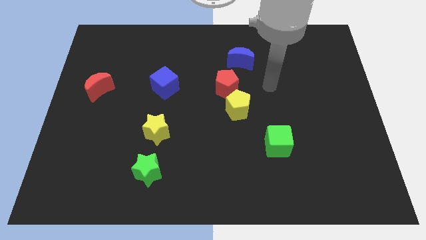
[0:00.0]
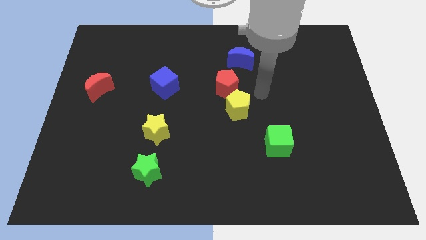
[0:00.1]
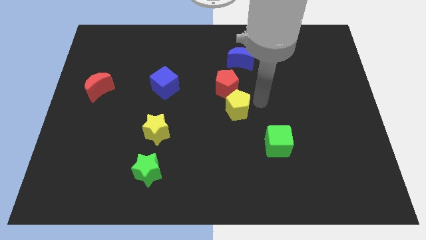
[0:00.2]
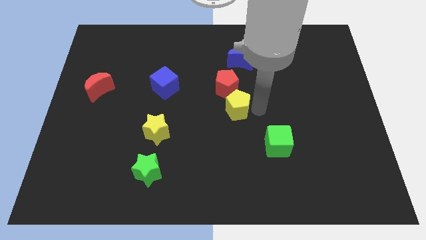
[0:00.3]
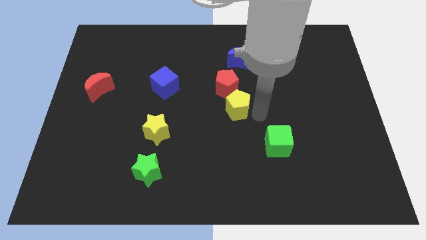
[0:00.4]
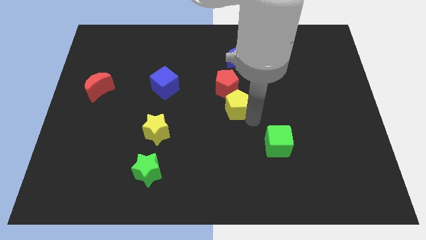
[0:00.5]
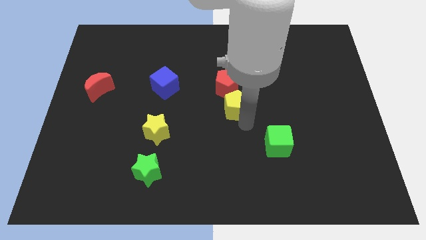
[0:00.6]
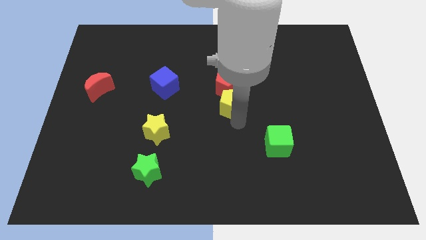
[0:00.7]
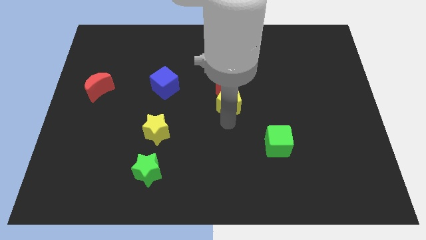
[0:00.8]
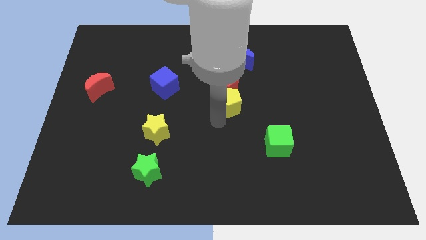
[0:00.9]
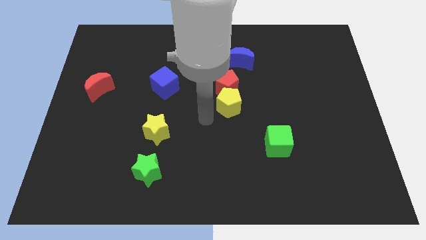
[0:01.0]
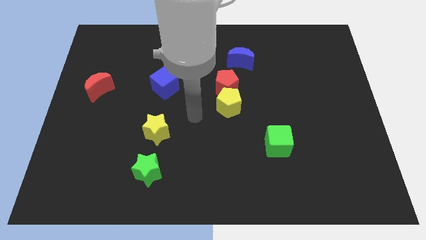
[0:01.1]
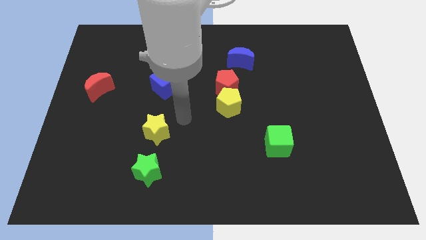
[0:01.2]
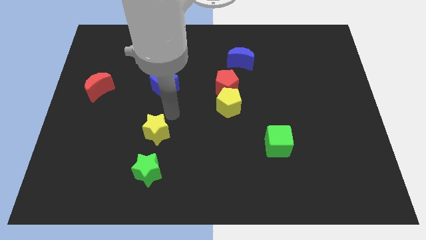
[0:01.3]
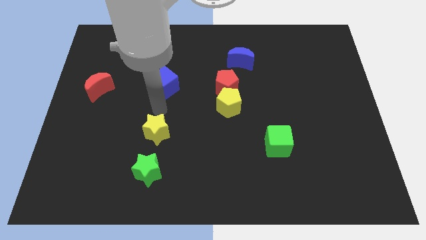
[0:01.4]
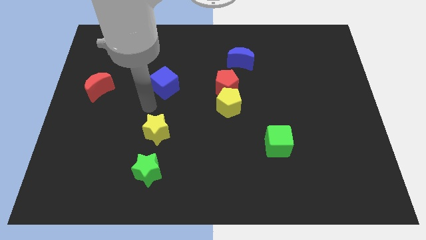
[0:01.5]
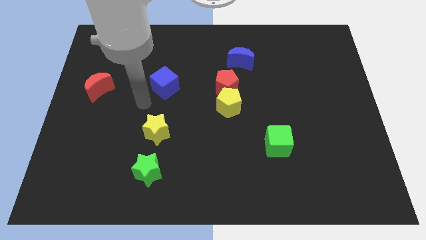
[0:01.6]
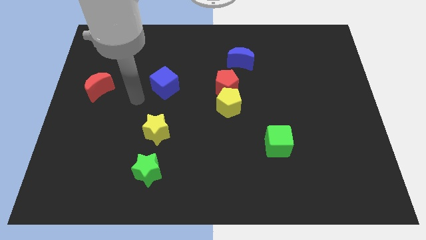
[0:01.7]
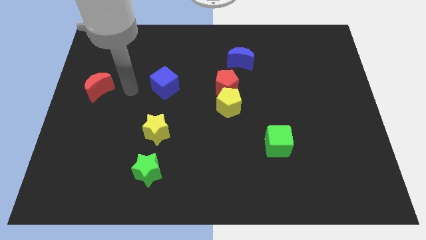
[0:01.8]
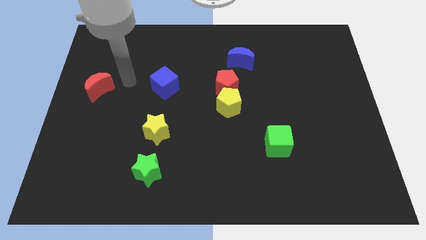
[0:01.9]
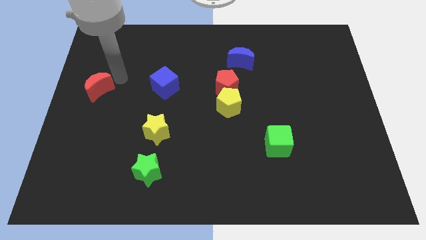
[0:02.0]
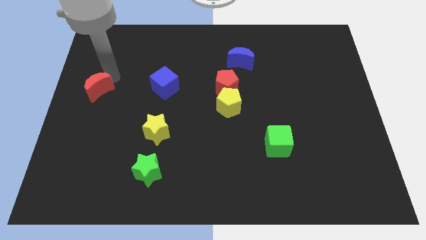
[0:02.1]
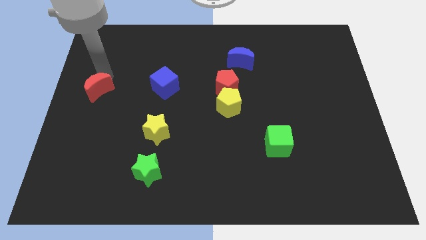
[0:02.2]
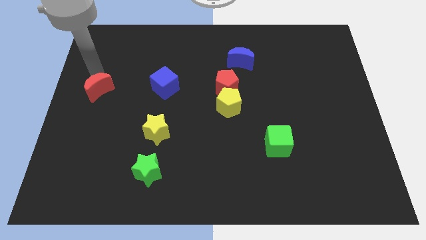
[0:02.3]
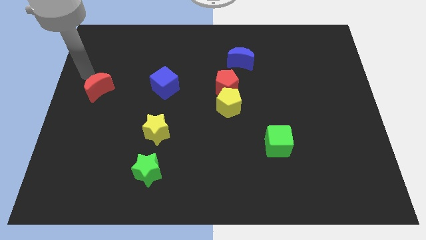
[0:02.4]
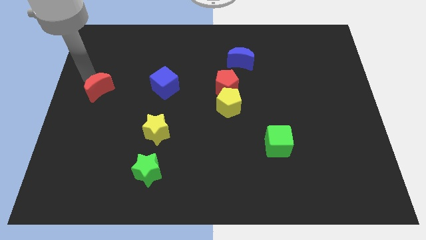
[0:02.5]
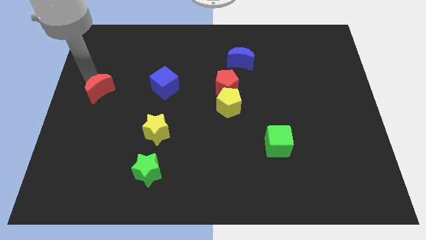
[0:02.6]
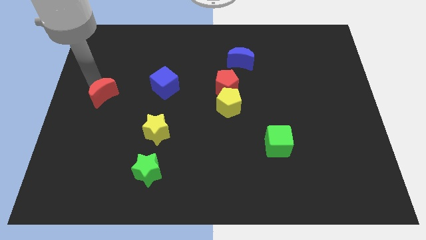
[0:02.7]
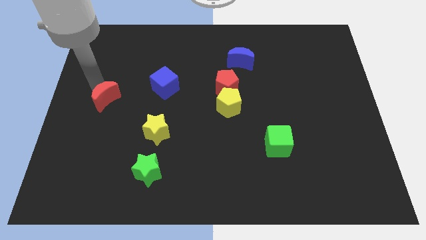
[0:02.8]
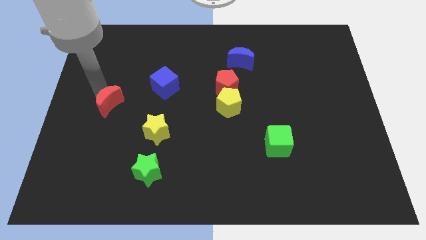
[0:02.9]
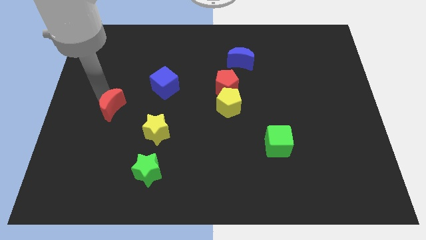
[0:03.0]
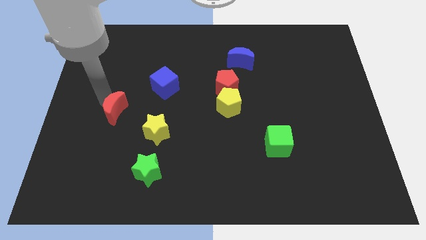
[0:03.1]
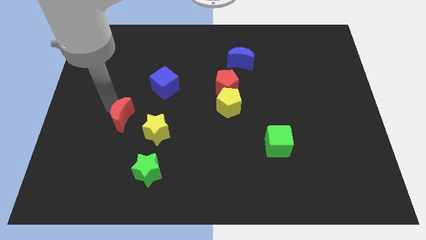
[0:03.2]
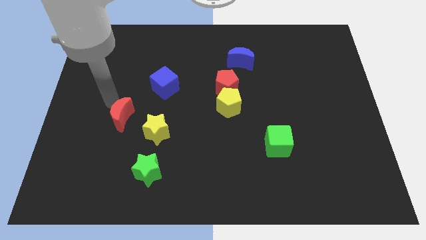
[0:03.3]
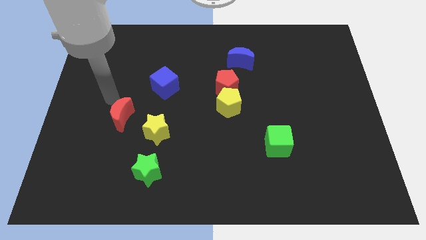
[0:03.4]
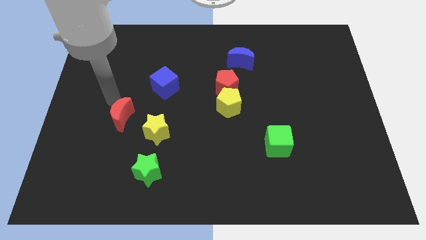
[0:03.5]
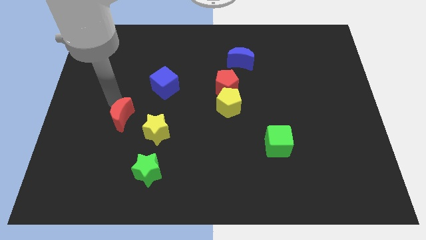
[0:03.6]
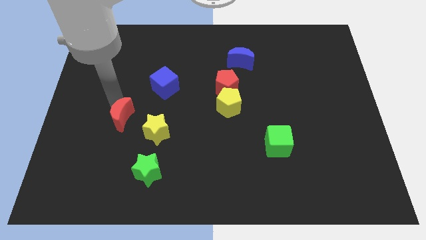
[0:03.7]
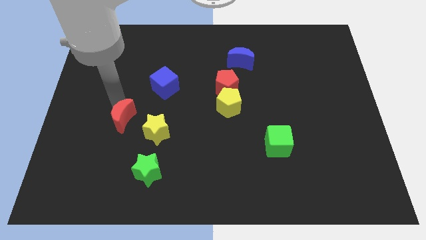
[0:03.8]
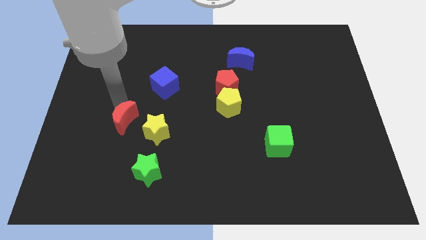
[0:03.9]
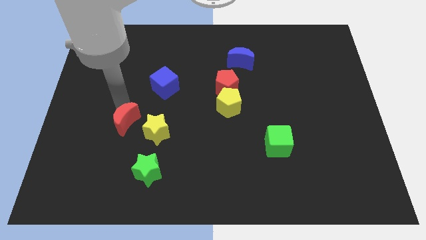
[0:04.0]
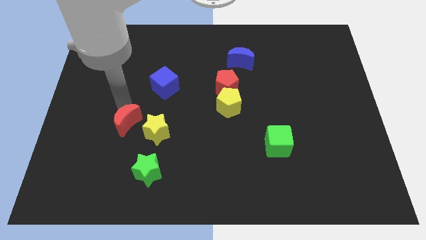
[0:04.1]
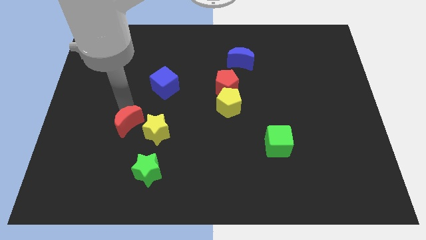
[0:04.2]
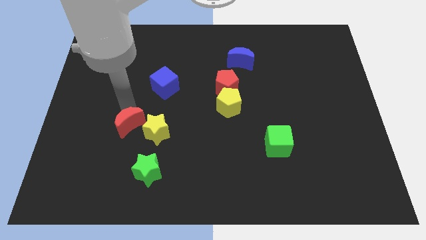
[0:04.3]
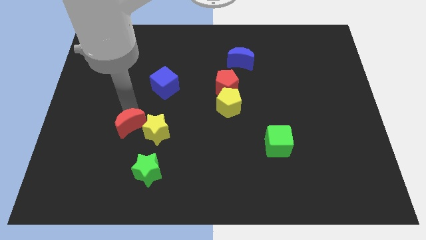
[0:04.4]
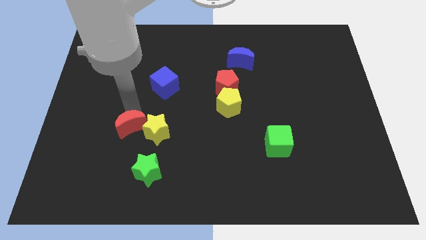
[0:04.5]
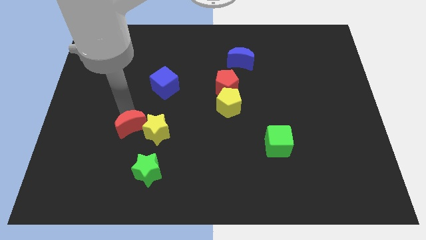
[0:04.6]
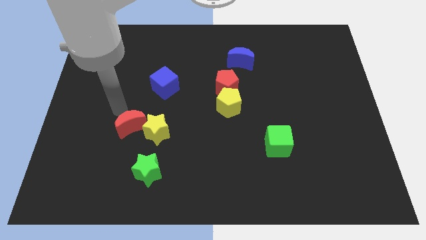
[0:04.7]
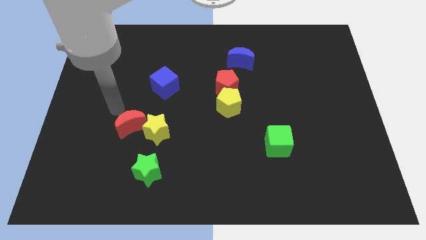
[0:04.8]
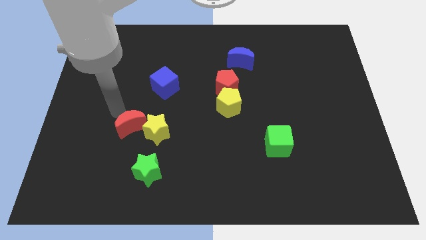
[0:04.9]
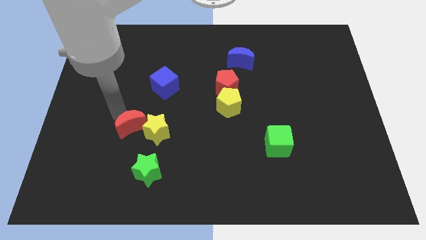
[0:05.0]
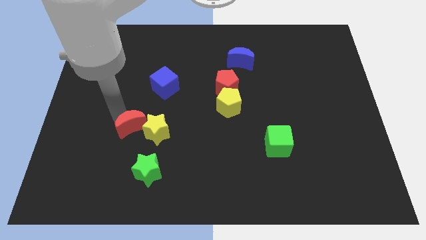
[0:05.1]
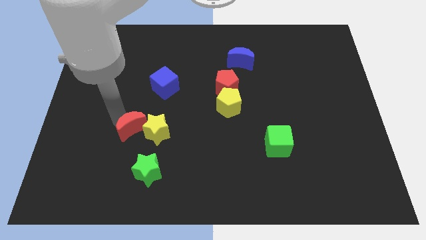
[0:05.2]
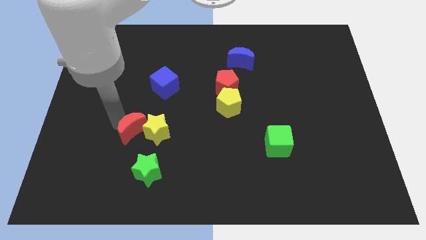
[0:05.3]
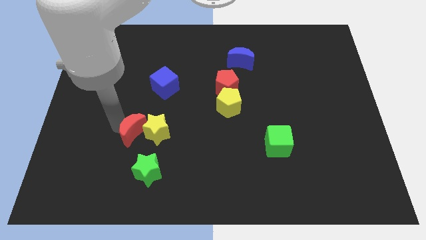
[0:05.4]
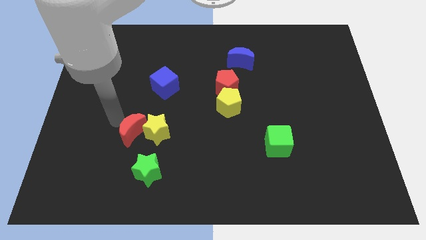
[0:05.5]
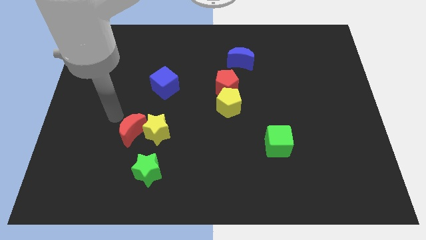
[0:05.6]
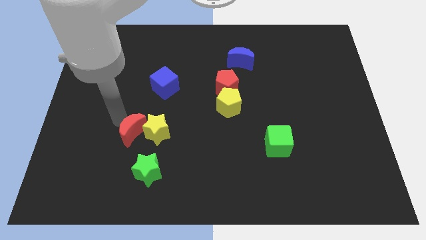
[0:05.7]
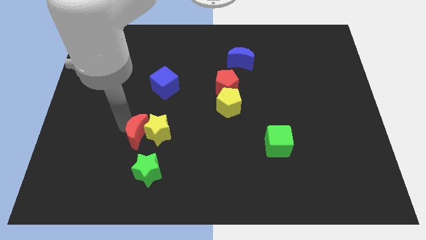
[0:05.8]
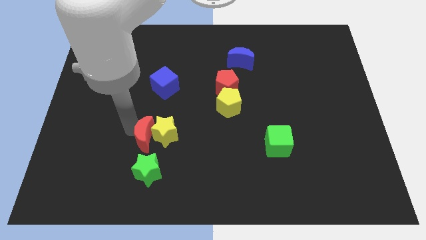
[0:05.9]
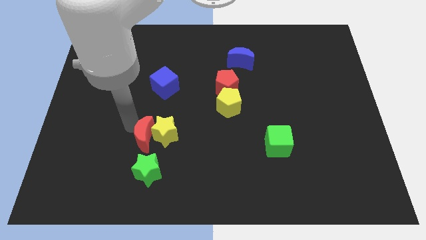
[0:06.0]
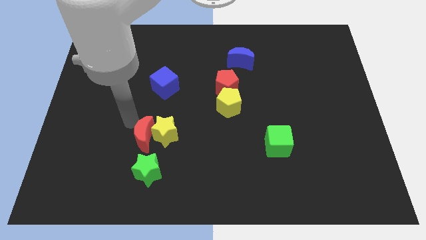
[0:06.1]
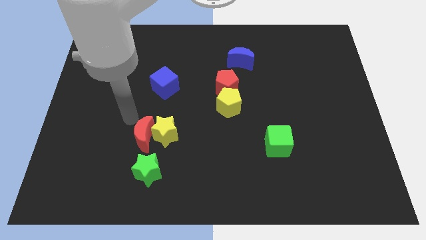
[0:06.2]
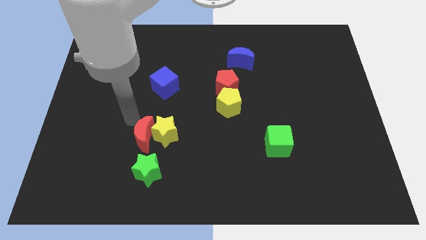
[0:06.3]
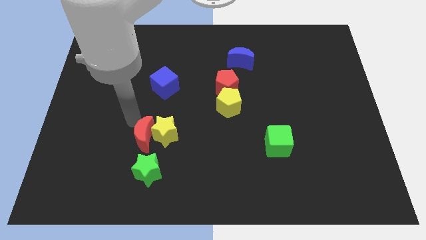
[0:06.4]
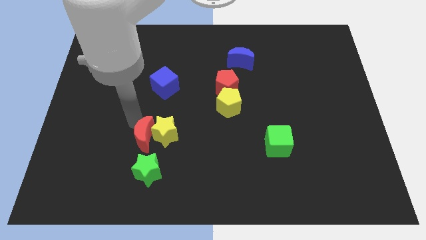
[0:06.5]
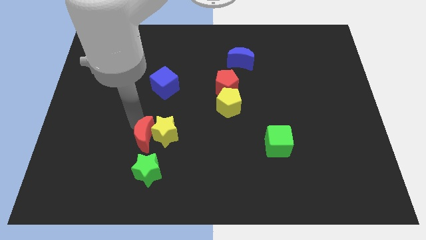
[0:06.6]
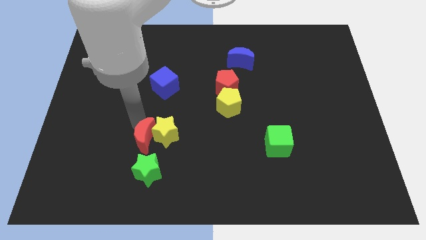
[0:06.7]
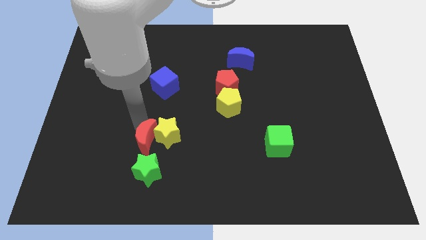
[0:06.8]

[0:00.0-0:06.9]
push the red moon downwards and to the right

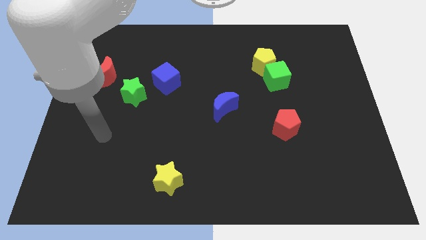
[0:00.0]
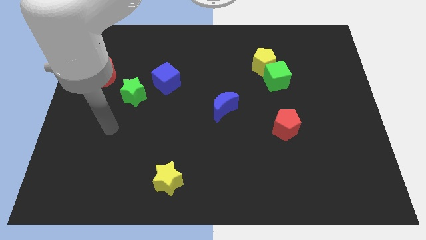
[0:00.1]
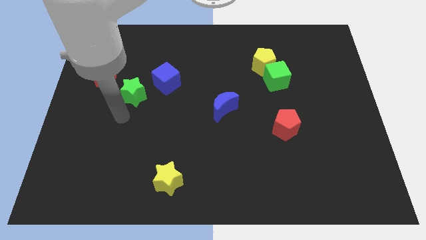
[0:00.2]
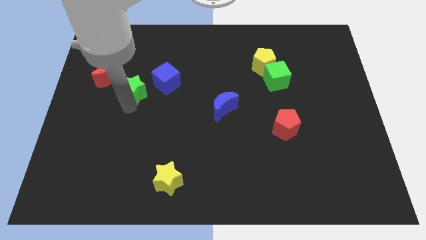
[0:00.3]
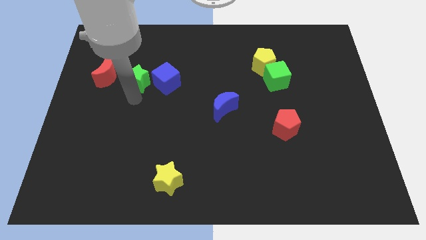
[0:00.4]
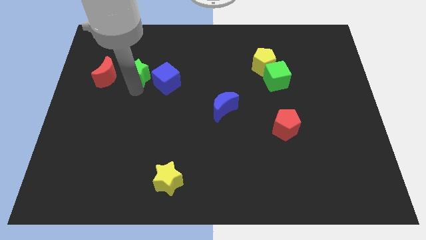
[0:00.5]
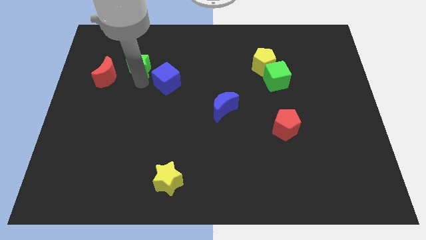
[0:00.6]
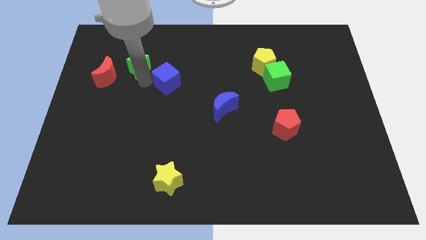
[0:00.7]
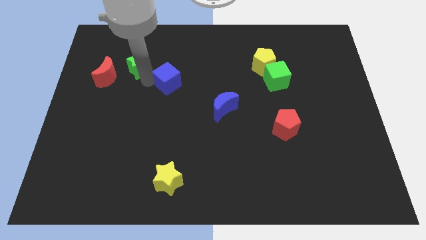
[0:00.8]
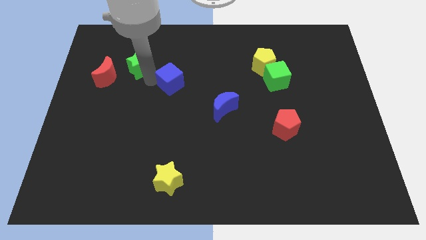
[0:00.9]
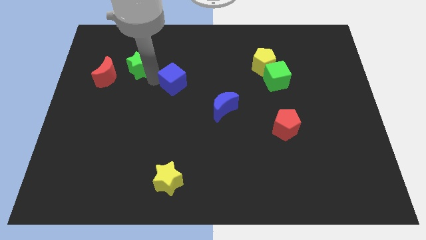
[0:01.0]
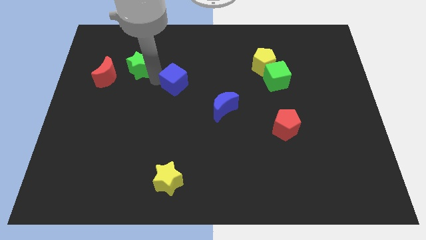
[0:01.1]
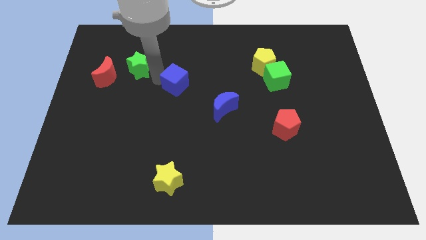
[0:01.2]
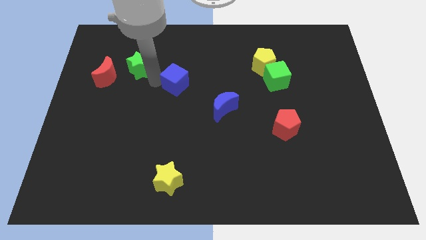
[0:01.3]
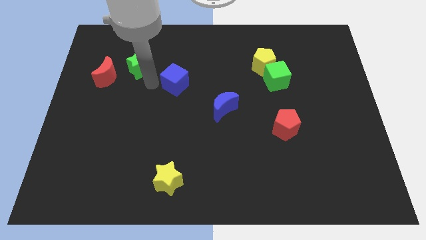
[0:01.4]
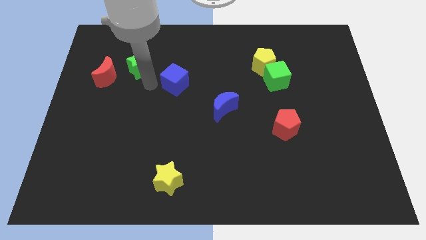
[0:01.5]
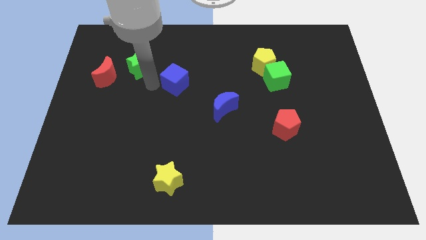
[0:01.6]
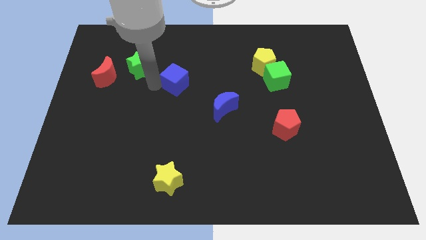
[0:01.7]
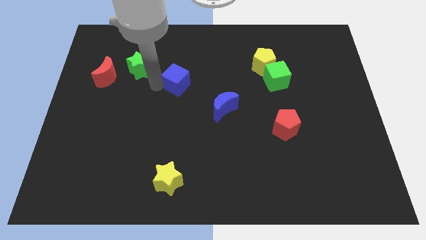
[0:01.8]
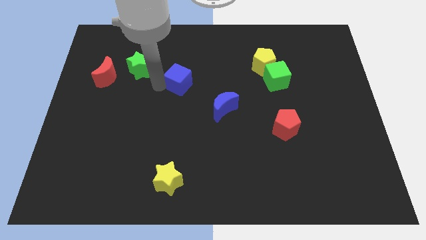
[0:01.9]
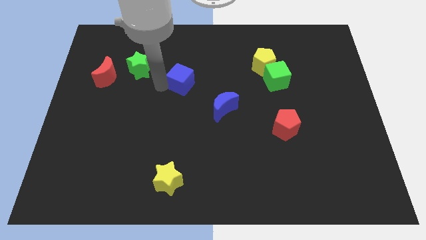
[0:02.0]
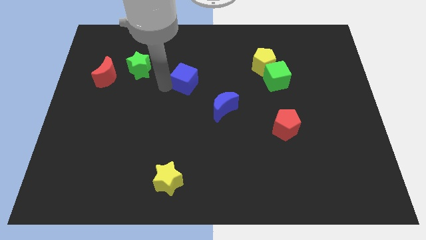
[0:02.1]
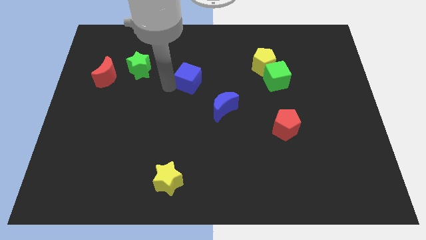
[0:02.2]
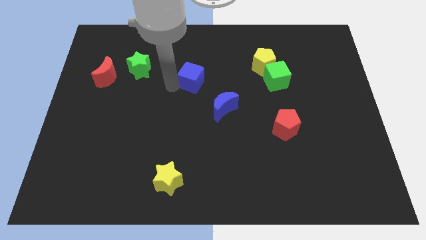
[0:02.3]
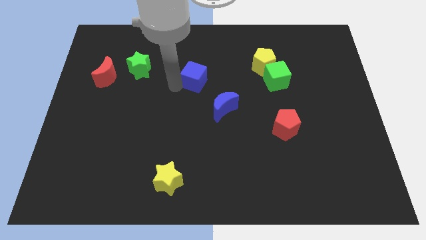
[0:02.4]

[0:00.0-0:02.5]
move the blue cube slightly right
